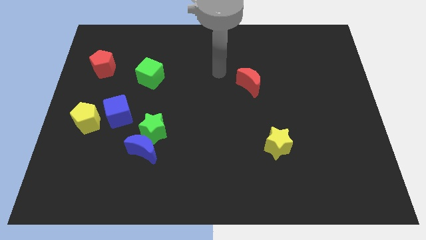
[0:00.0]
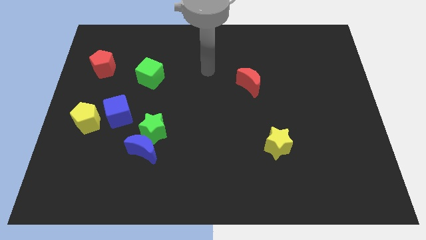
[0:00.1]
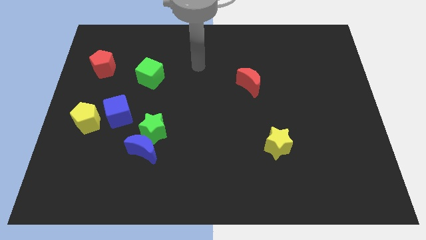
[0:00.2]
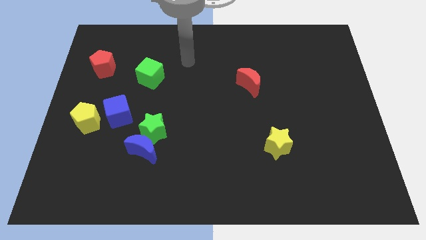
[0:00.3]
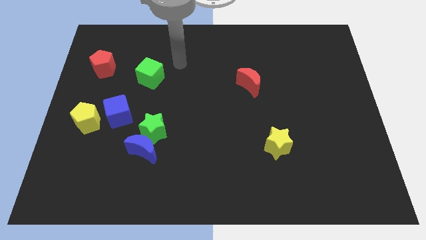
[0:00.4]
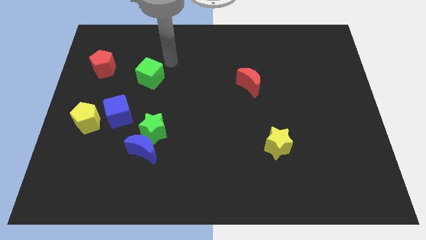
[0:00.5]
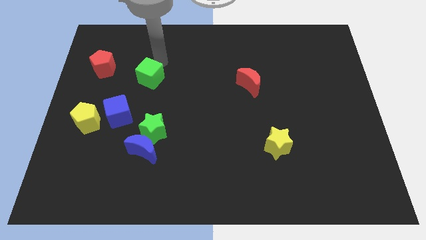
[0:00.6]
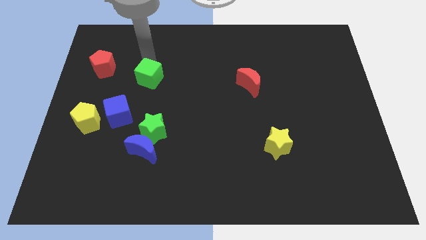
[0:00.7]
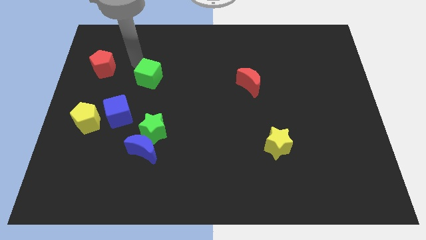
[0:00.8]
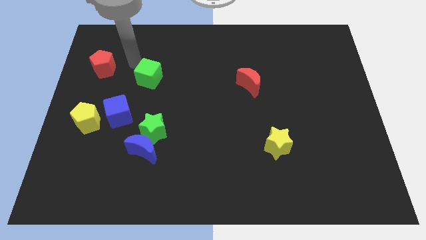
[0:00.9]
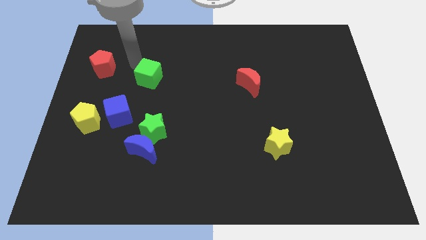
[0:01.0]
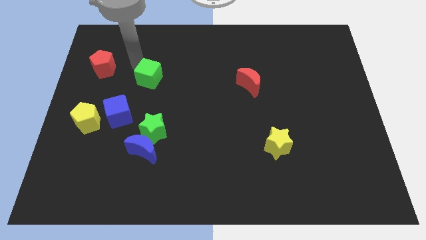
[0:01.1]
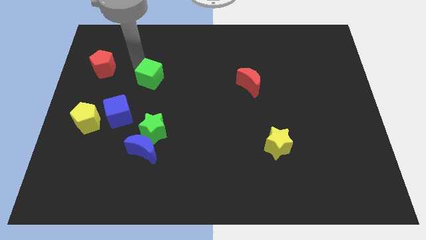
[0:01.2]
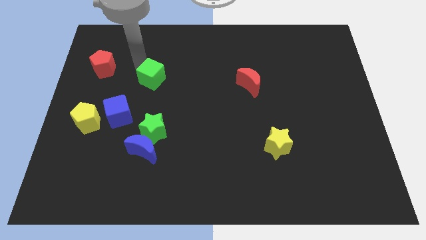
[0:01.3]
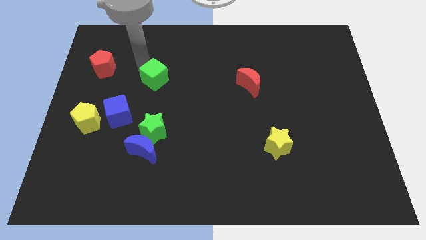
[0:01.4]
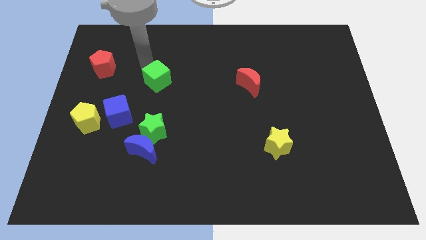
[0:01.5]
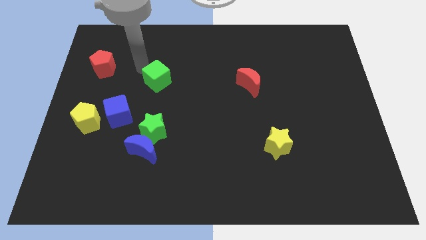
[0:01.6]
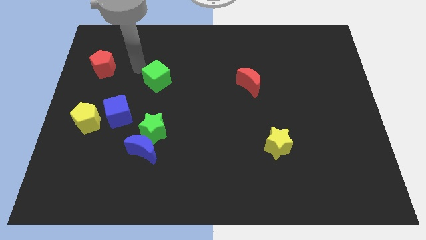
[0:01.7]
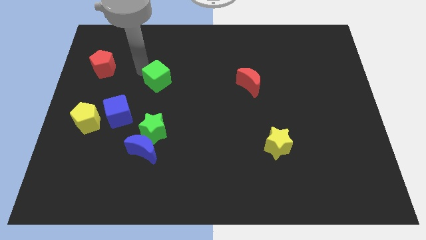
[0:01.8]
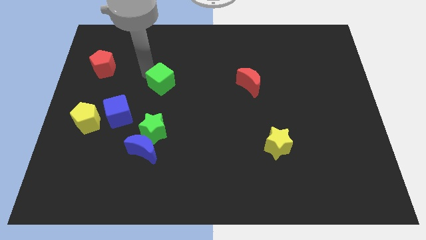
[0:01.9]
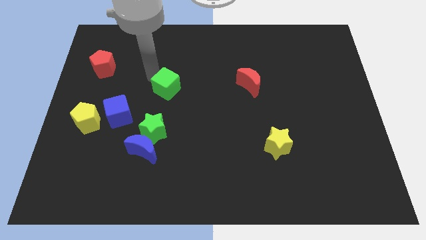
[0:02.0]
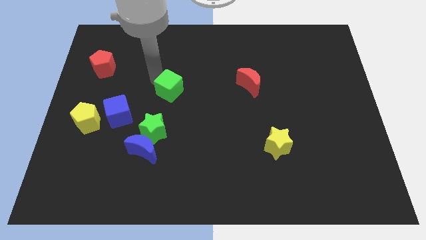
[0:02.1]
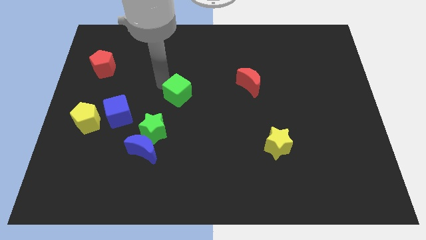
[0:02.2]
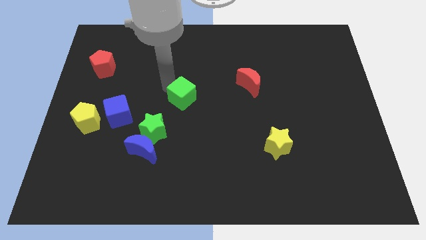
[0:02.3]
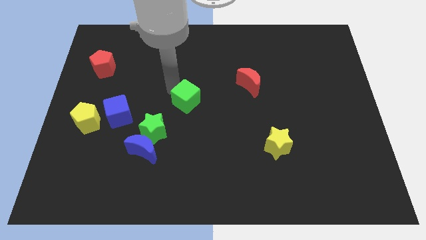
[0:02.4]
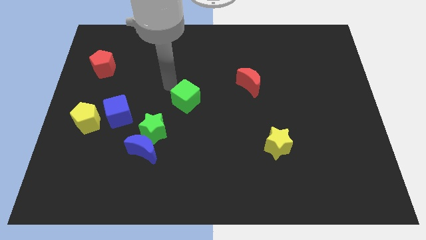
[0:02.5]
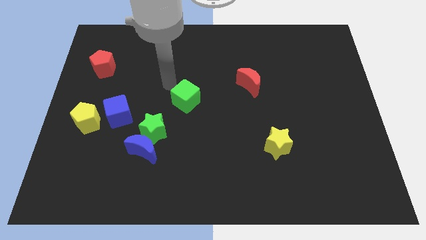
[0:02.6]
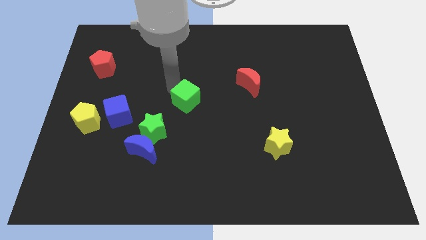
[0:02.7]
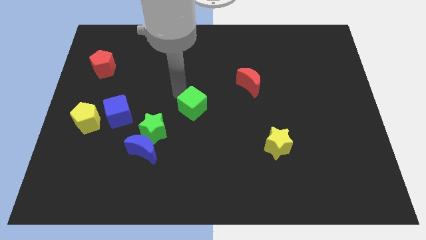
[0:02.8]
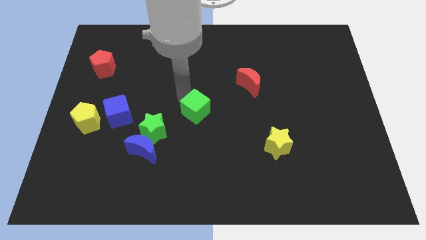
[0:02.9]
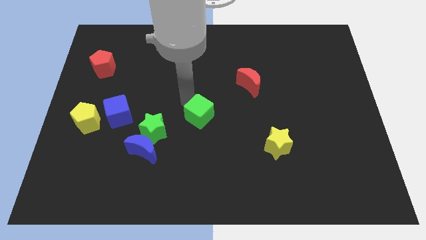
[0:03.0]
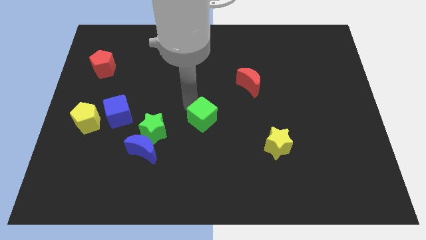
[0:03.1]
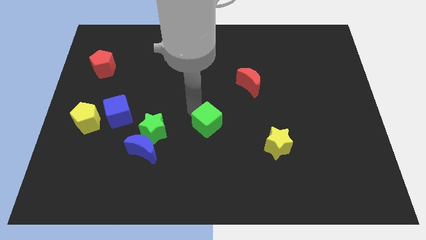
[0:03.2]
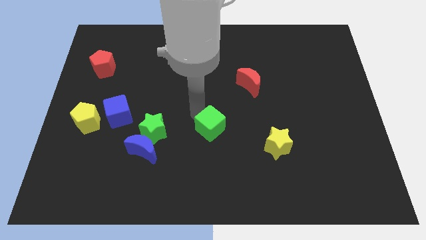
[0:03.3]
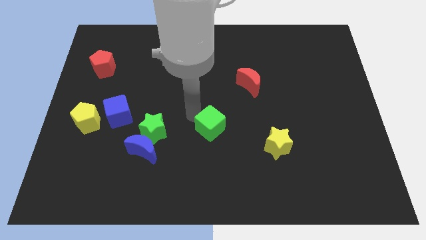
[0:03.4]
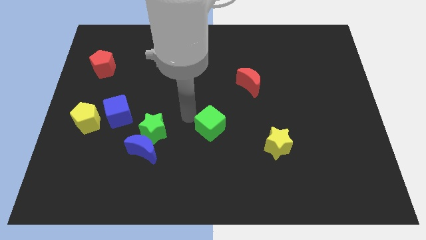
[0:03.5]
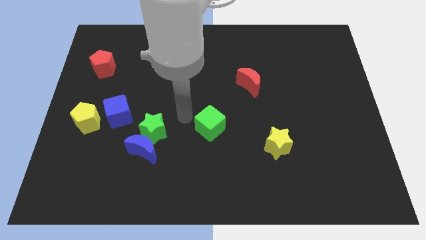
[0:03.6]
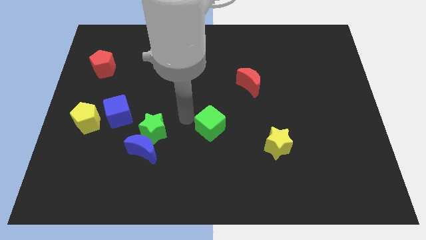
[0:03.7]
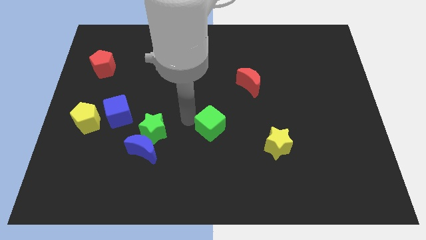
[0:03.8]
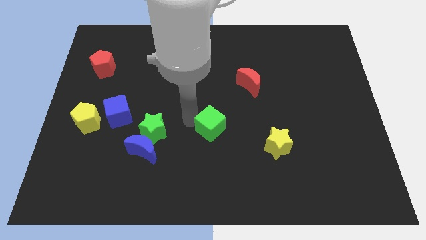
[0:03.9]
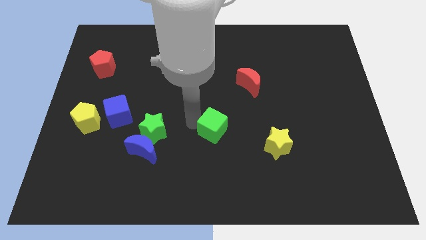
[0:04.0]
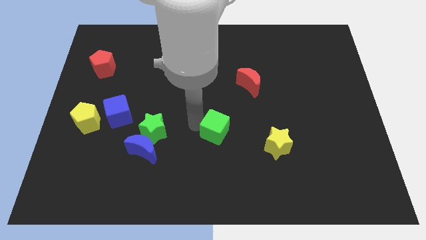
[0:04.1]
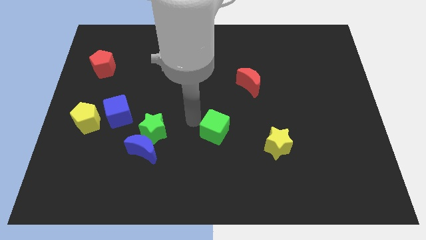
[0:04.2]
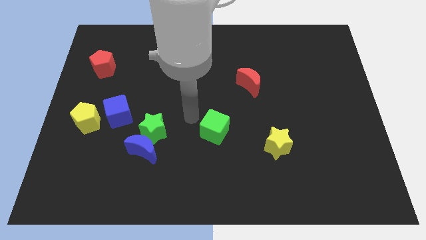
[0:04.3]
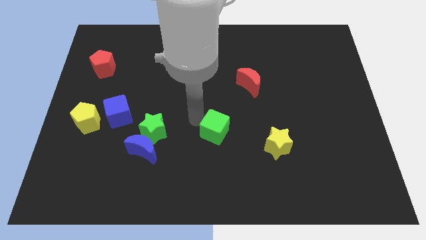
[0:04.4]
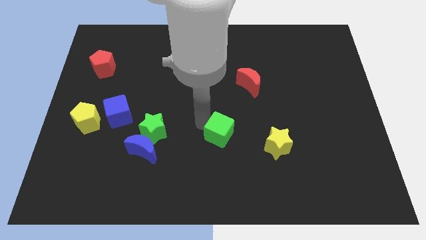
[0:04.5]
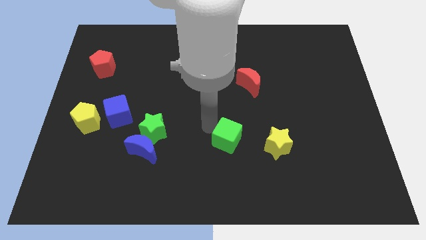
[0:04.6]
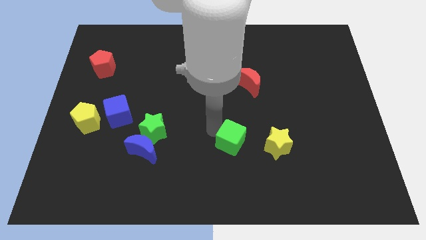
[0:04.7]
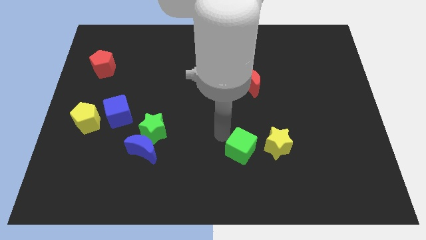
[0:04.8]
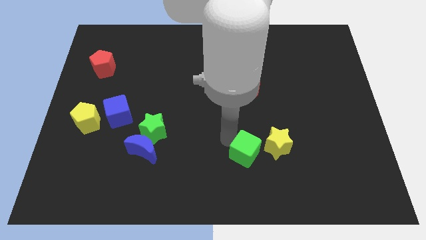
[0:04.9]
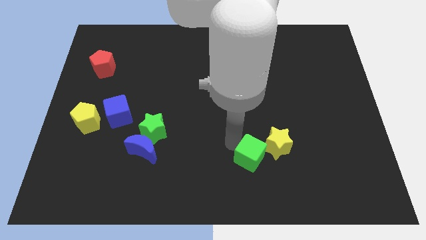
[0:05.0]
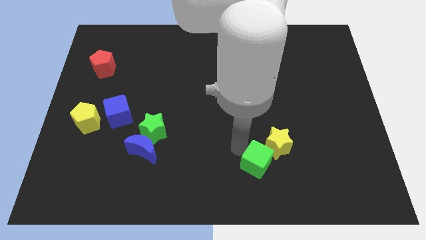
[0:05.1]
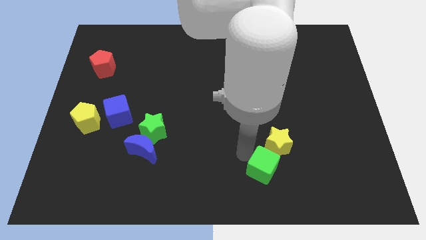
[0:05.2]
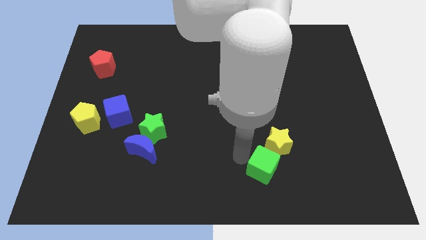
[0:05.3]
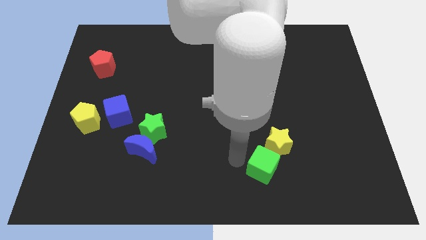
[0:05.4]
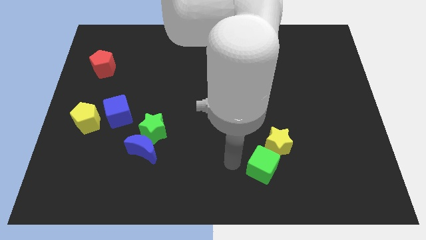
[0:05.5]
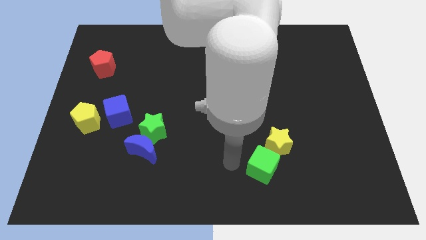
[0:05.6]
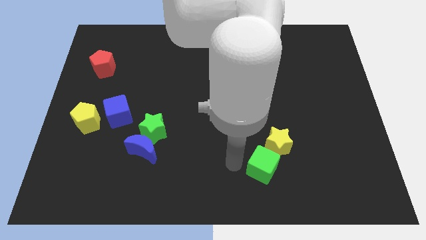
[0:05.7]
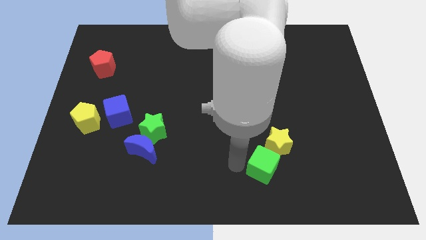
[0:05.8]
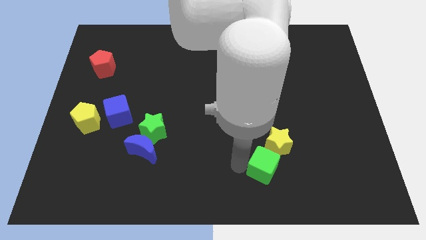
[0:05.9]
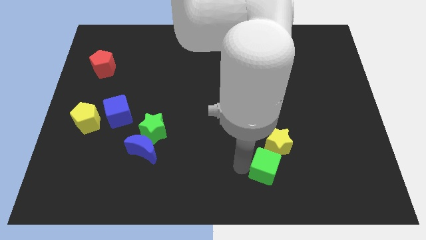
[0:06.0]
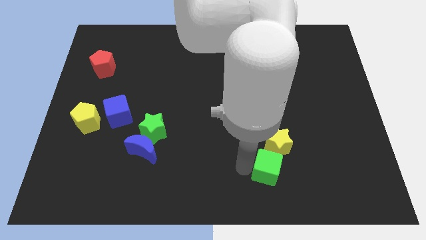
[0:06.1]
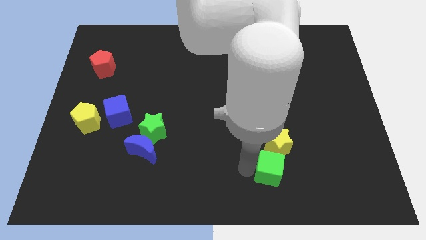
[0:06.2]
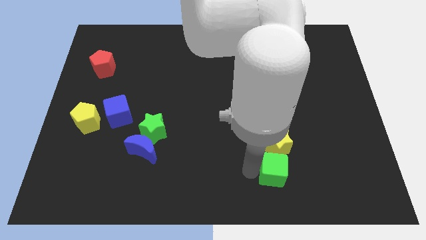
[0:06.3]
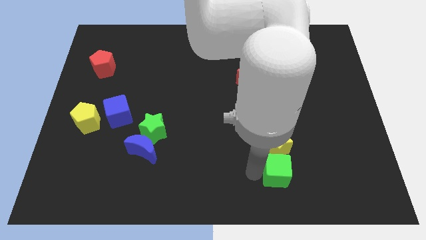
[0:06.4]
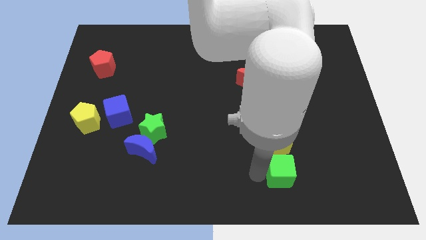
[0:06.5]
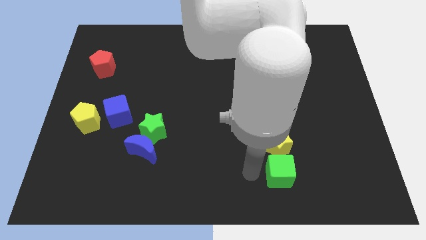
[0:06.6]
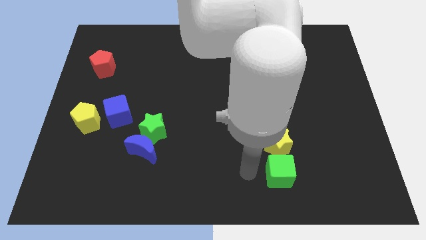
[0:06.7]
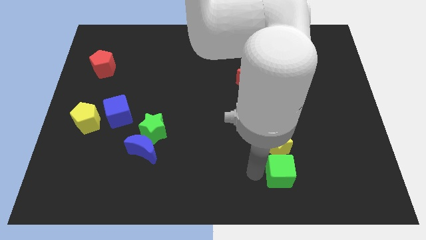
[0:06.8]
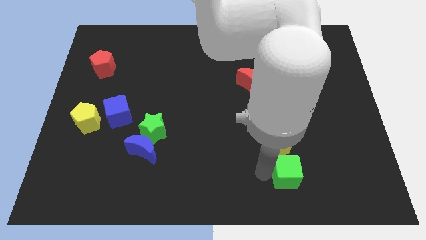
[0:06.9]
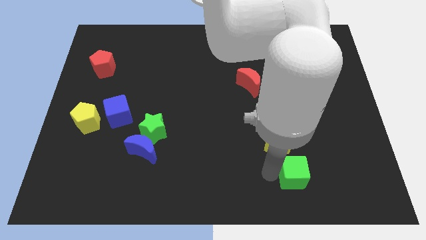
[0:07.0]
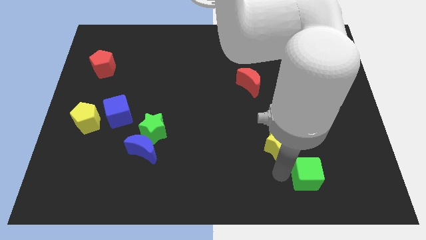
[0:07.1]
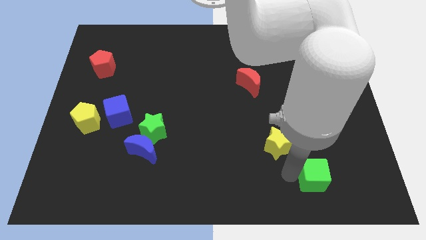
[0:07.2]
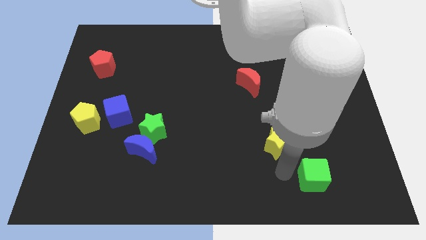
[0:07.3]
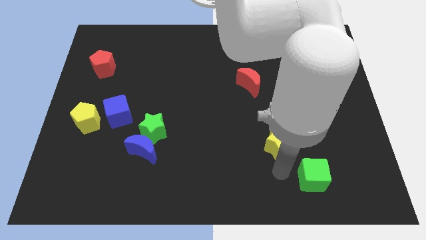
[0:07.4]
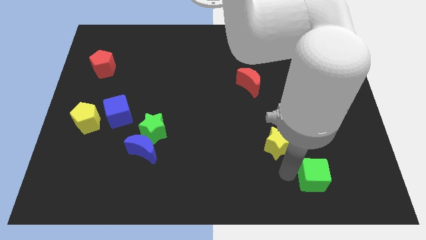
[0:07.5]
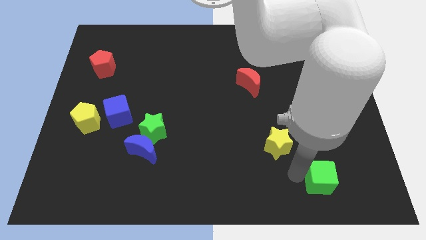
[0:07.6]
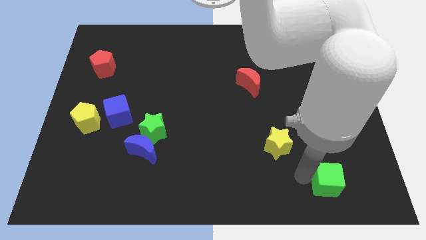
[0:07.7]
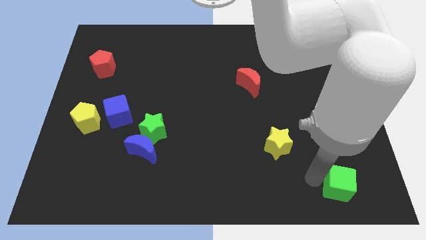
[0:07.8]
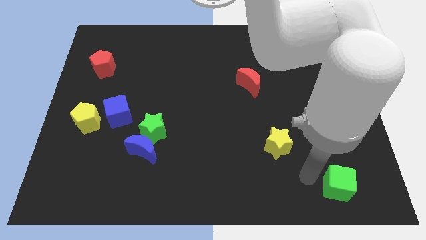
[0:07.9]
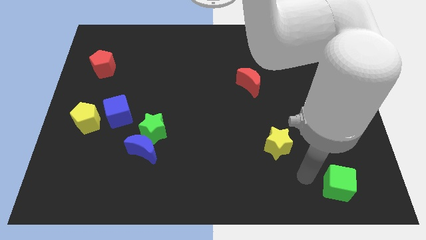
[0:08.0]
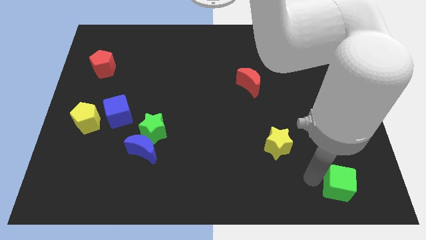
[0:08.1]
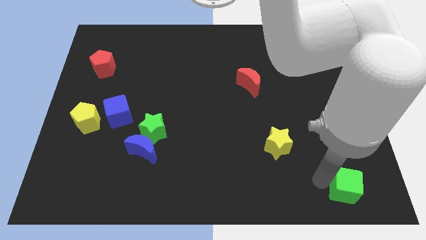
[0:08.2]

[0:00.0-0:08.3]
put the green cube to the bottom right corner
